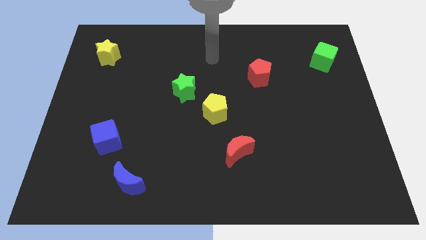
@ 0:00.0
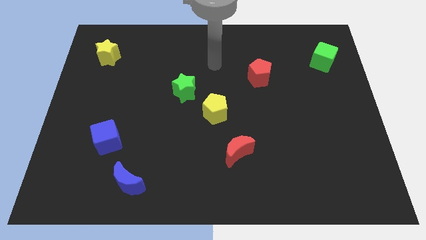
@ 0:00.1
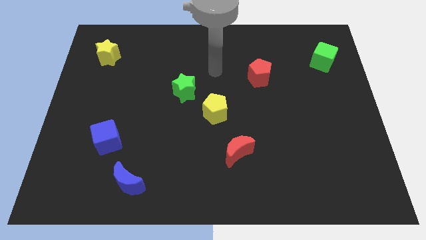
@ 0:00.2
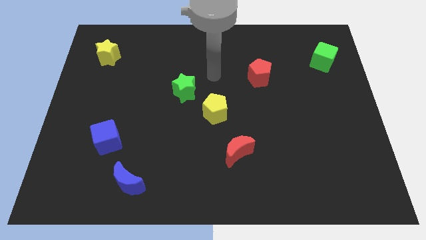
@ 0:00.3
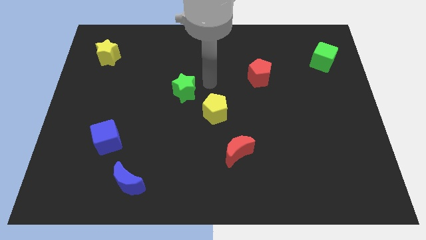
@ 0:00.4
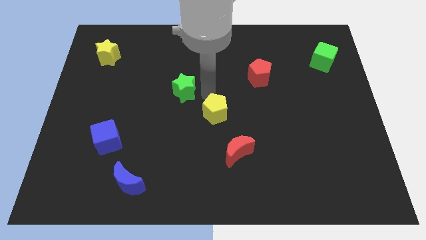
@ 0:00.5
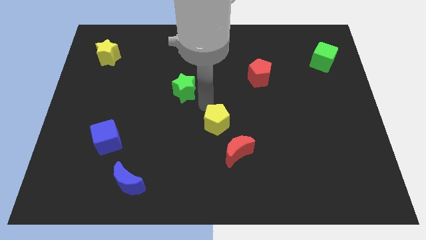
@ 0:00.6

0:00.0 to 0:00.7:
move the green star away from the yellow pentagon

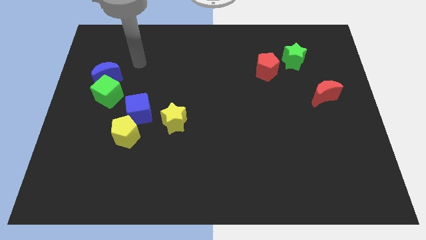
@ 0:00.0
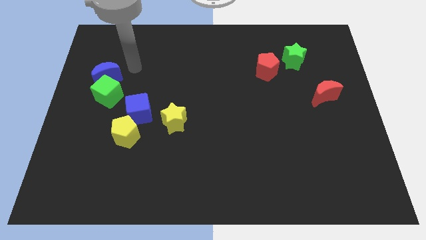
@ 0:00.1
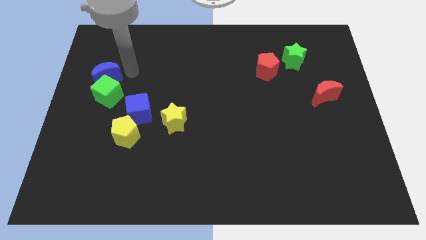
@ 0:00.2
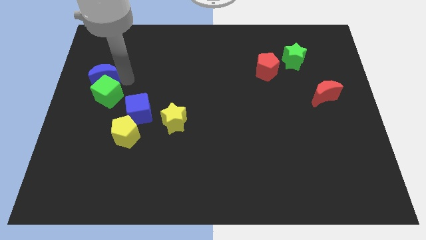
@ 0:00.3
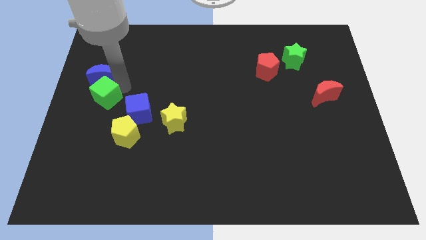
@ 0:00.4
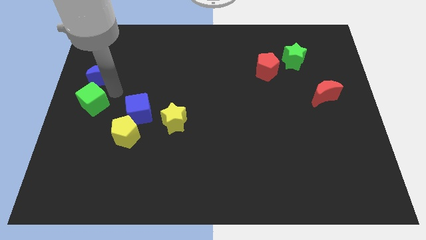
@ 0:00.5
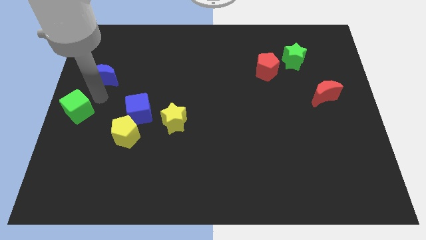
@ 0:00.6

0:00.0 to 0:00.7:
separate the blue moon from the green cube

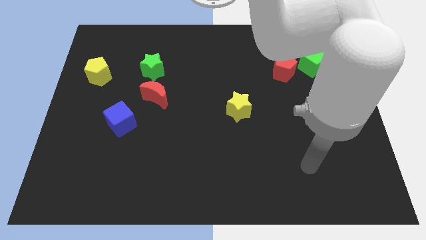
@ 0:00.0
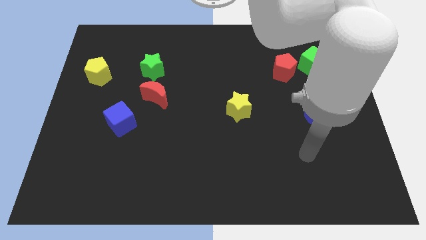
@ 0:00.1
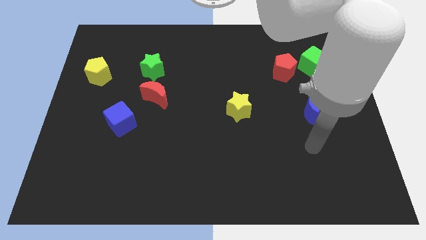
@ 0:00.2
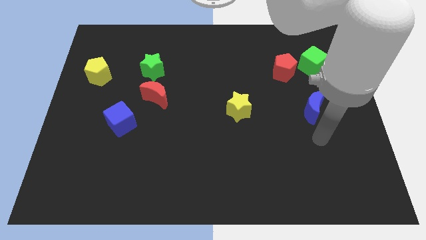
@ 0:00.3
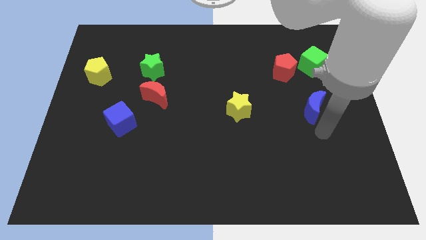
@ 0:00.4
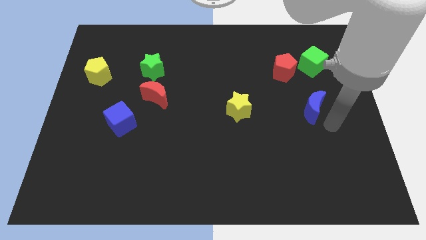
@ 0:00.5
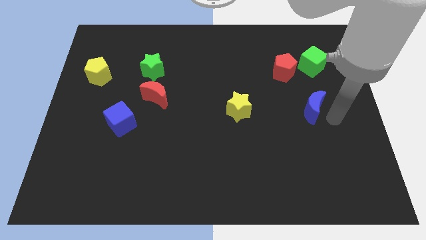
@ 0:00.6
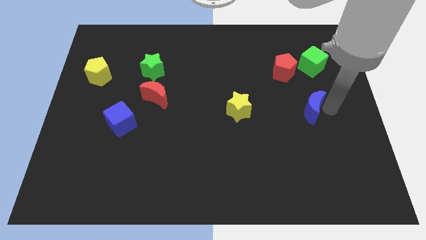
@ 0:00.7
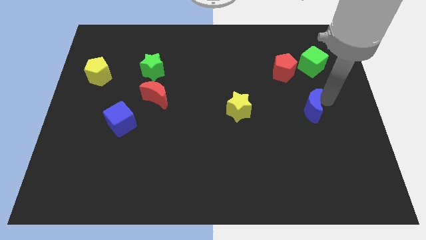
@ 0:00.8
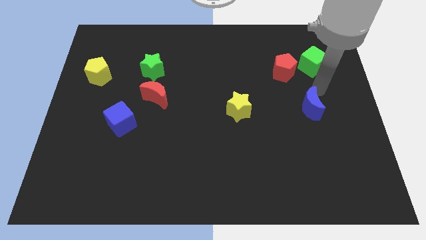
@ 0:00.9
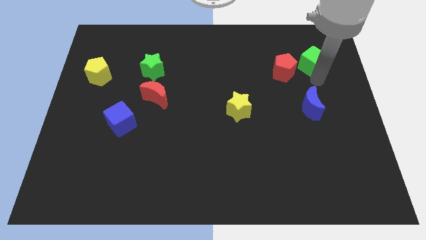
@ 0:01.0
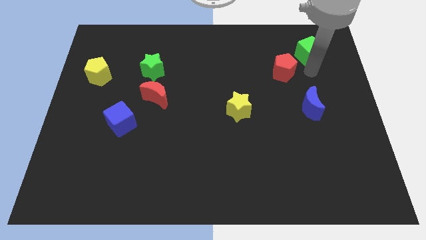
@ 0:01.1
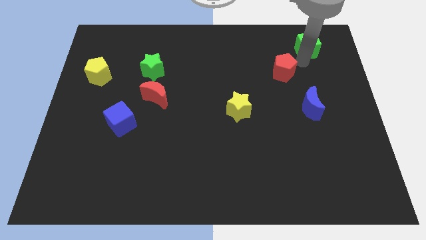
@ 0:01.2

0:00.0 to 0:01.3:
pull the red pentagon apart from the green cube

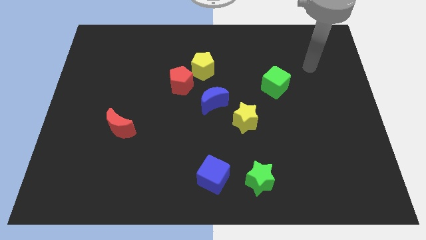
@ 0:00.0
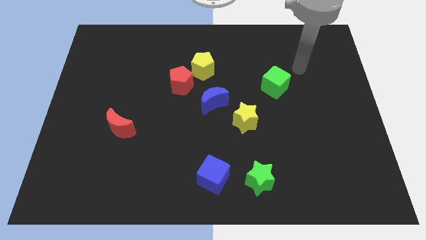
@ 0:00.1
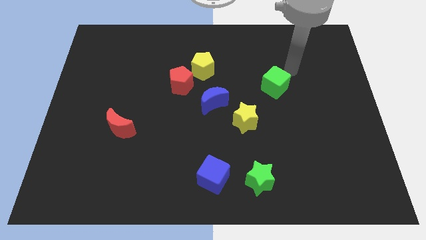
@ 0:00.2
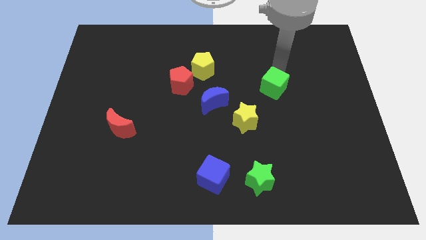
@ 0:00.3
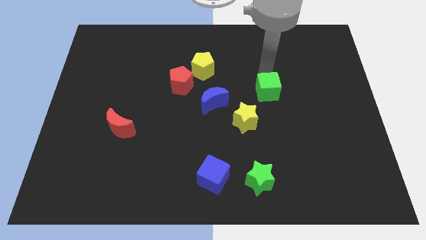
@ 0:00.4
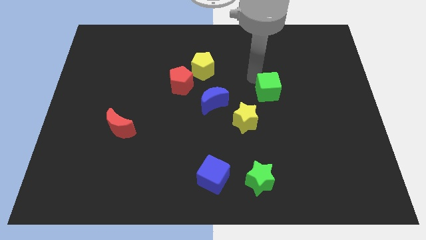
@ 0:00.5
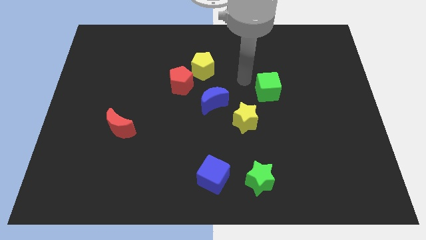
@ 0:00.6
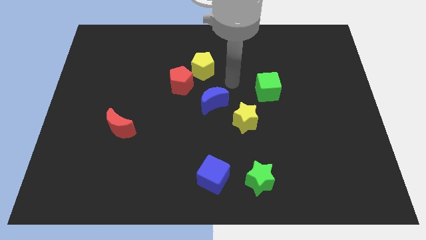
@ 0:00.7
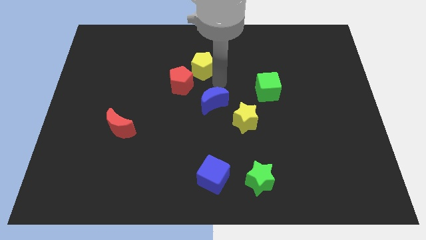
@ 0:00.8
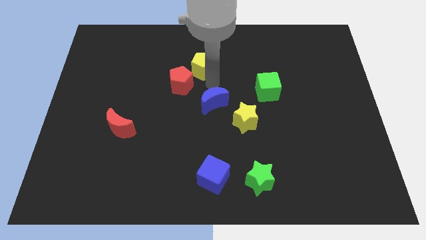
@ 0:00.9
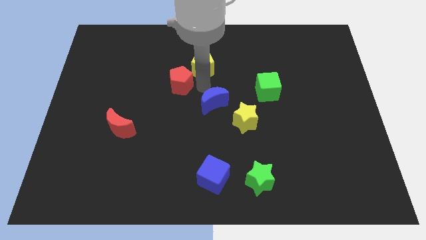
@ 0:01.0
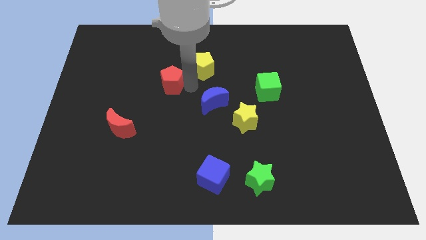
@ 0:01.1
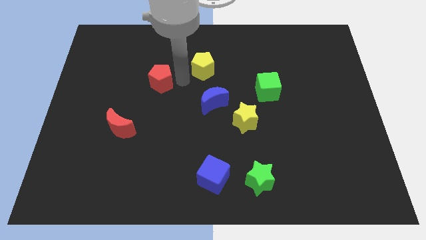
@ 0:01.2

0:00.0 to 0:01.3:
move the yellow pentagon away from the red pentagon

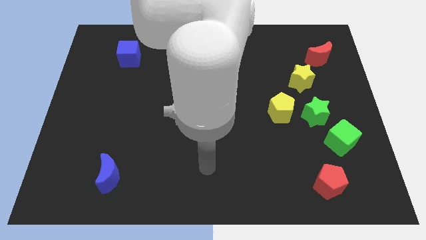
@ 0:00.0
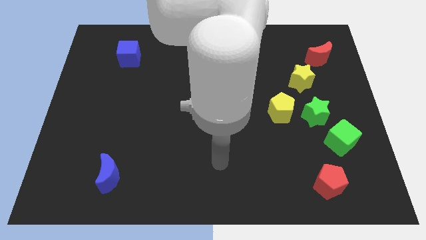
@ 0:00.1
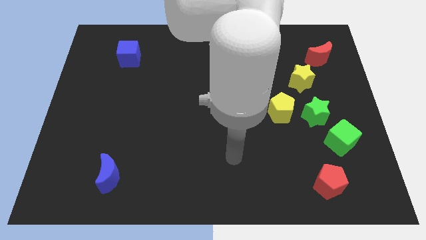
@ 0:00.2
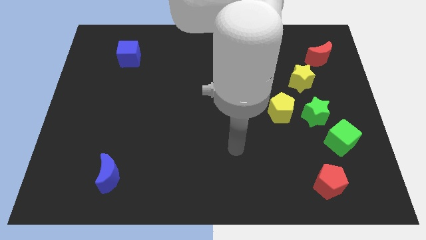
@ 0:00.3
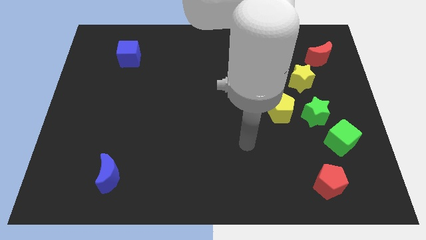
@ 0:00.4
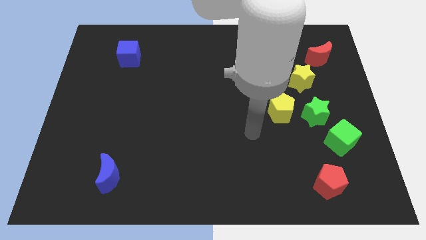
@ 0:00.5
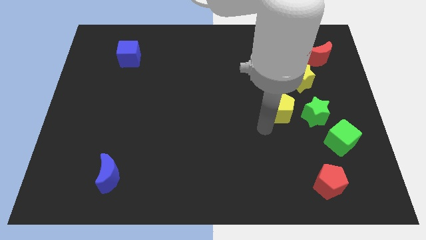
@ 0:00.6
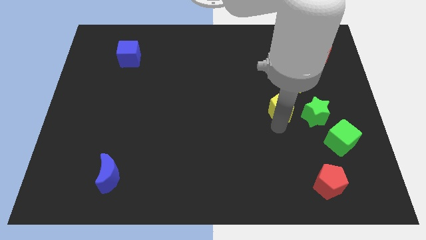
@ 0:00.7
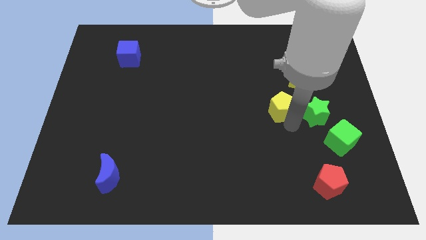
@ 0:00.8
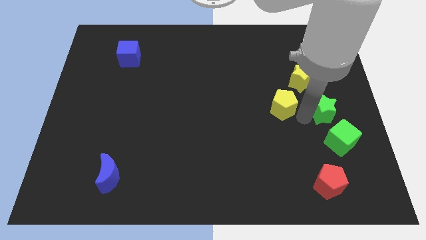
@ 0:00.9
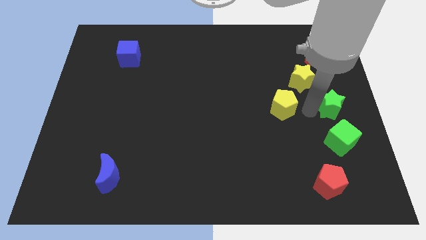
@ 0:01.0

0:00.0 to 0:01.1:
pull the yellow pentagon apart from the green star

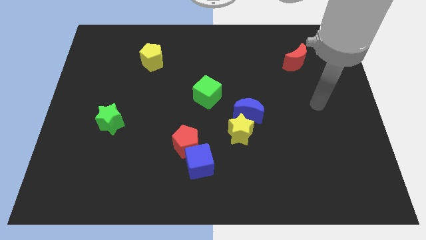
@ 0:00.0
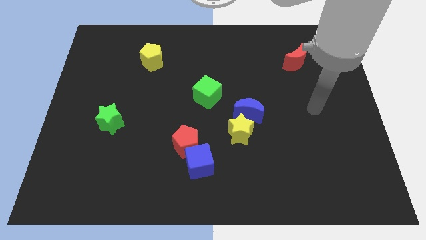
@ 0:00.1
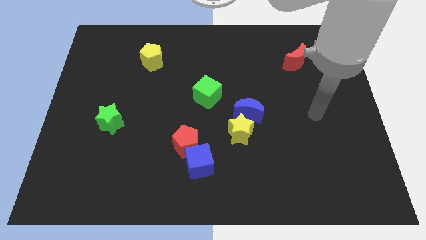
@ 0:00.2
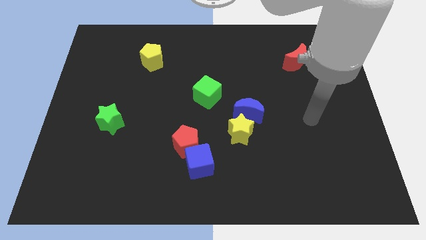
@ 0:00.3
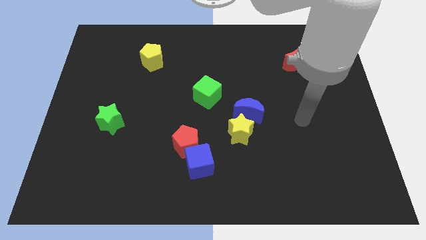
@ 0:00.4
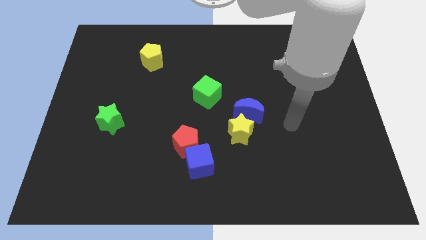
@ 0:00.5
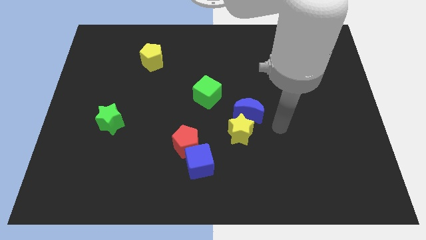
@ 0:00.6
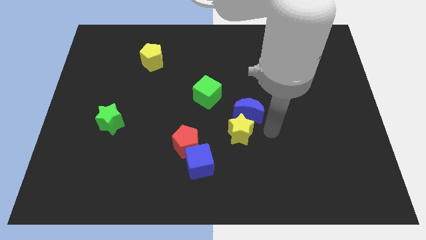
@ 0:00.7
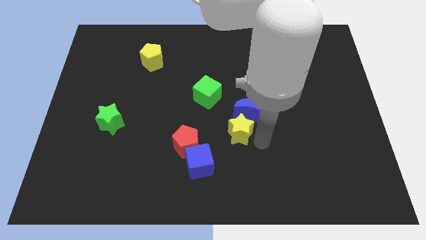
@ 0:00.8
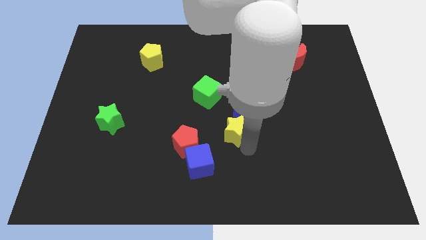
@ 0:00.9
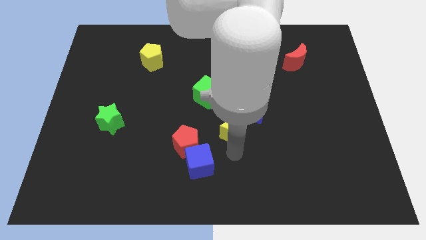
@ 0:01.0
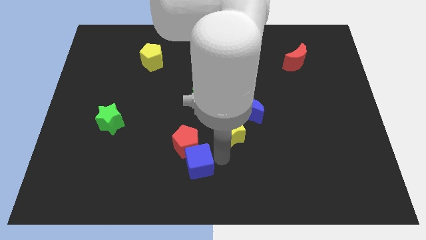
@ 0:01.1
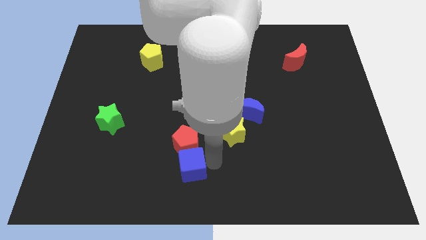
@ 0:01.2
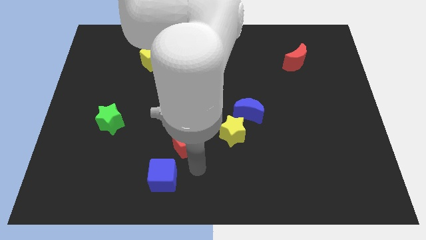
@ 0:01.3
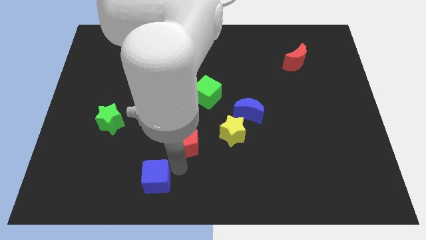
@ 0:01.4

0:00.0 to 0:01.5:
move the red pentagon away from the blue cube

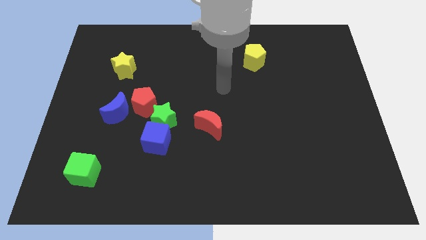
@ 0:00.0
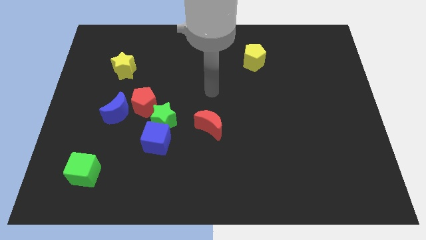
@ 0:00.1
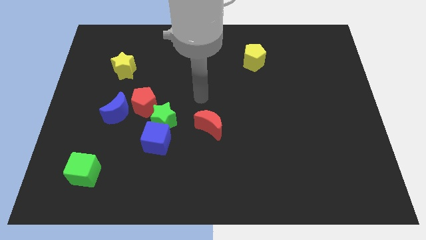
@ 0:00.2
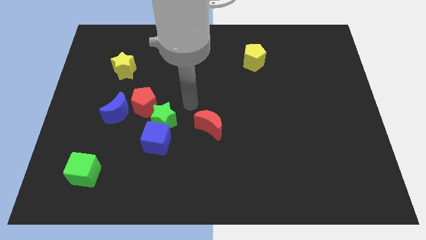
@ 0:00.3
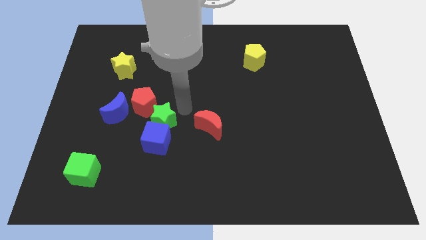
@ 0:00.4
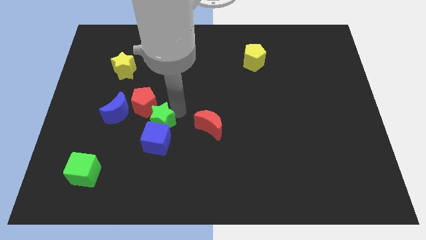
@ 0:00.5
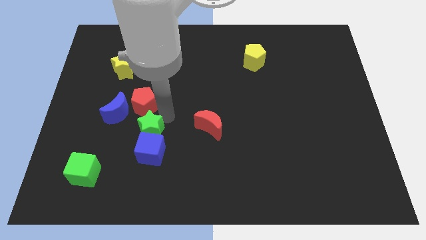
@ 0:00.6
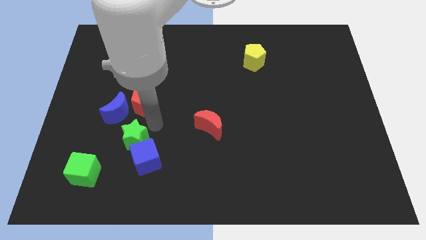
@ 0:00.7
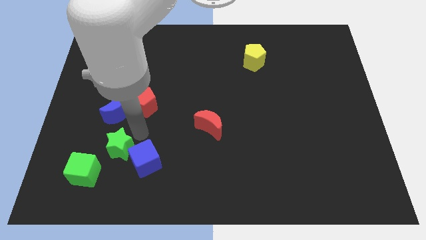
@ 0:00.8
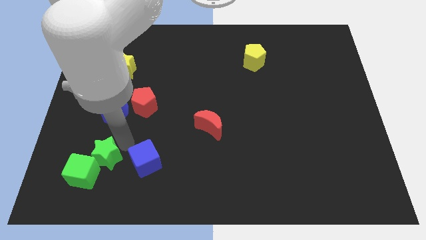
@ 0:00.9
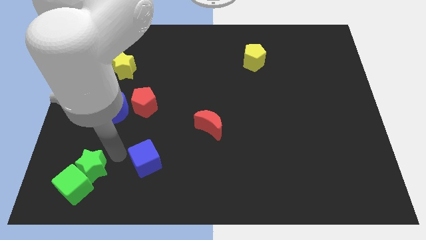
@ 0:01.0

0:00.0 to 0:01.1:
separate the blue cube from the green star

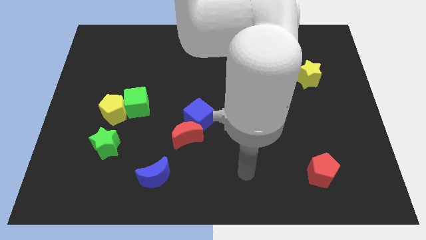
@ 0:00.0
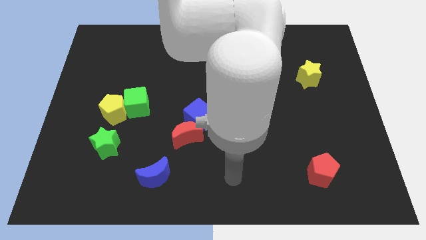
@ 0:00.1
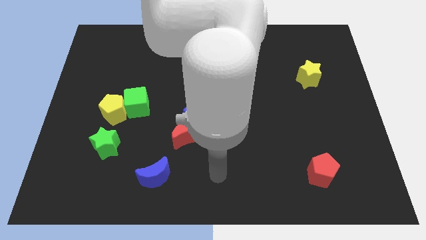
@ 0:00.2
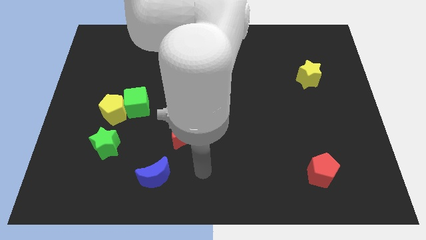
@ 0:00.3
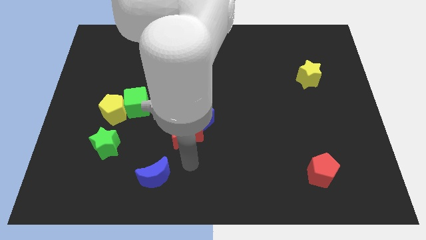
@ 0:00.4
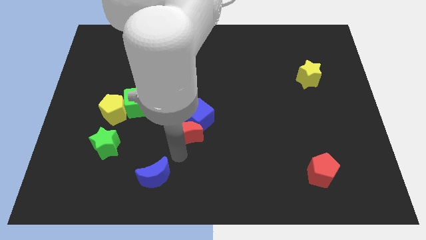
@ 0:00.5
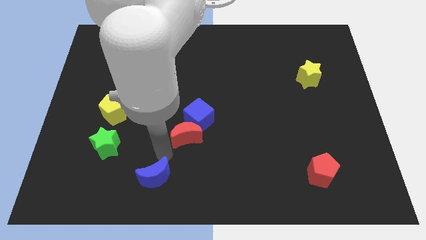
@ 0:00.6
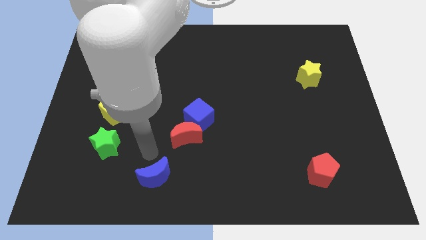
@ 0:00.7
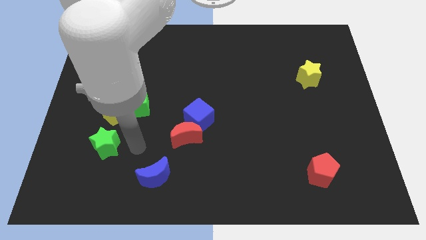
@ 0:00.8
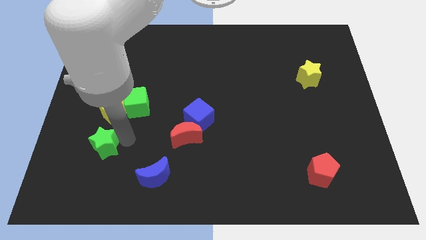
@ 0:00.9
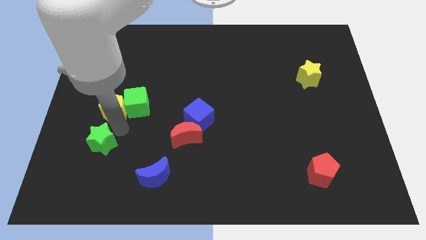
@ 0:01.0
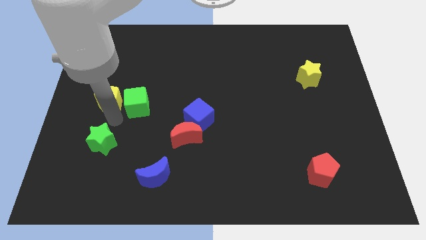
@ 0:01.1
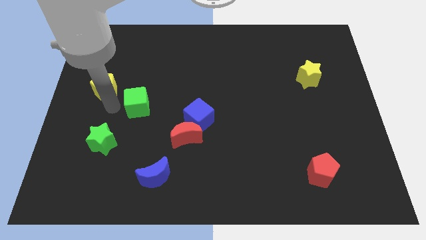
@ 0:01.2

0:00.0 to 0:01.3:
separate the green cube from the yellow pentagon

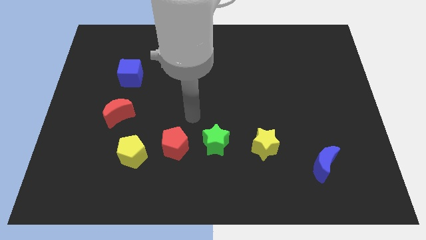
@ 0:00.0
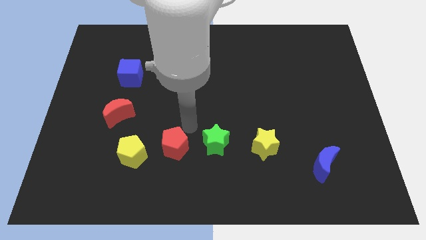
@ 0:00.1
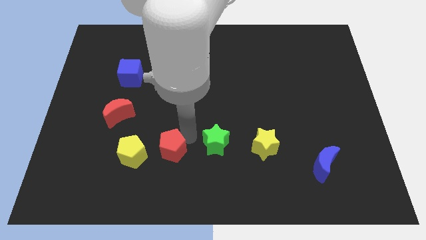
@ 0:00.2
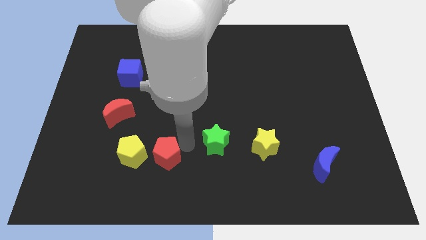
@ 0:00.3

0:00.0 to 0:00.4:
separate the green star from the red pentagon
